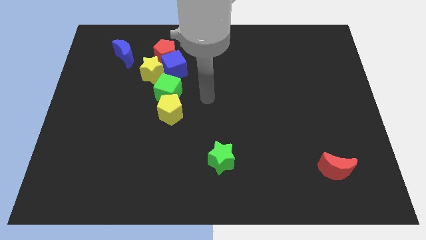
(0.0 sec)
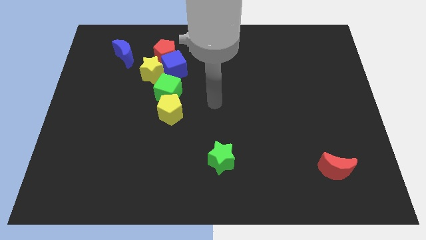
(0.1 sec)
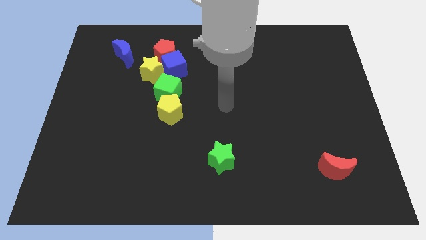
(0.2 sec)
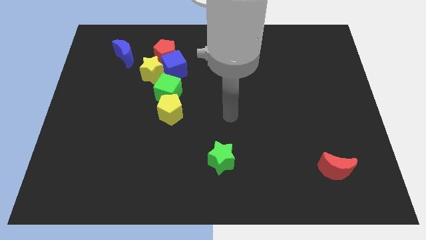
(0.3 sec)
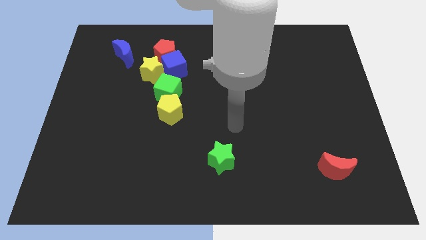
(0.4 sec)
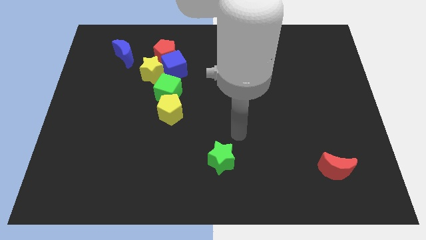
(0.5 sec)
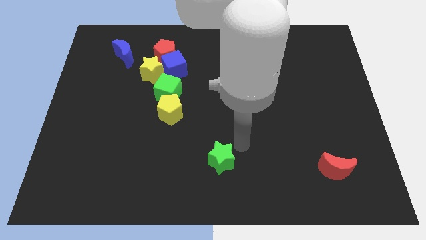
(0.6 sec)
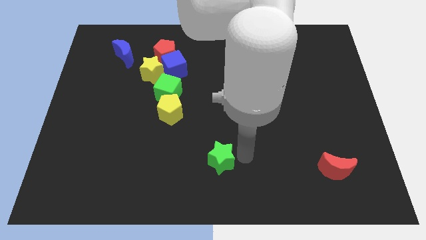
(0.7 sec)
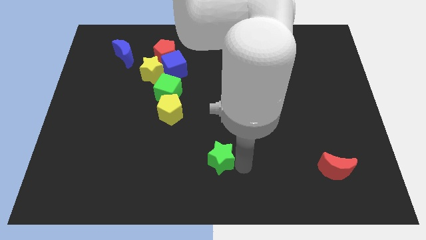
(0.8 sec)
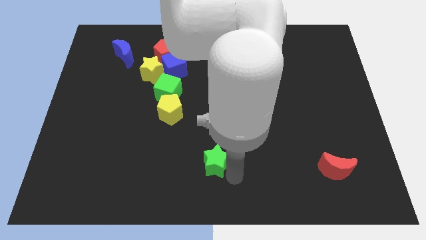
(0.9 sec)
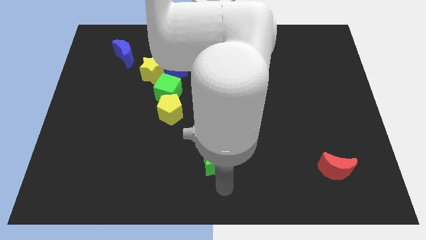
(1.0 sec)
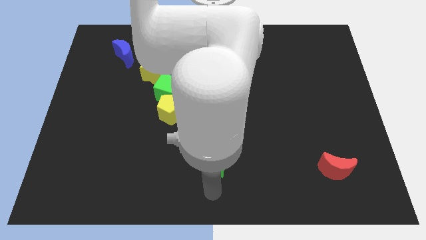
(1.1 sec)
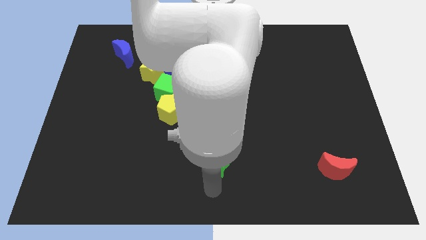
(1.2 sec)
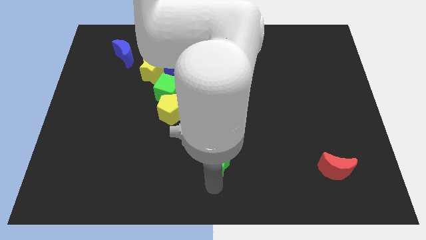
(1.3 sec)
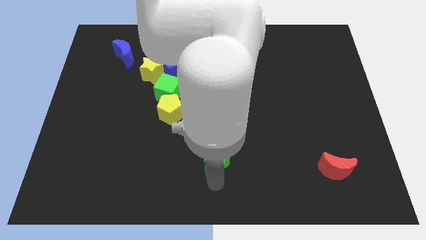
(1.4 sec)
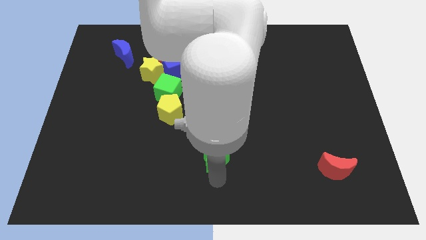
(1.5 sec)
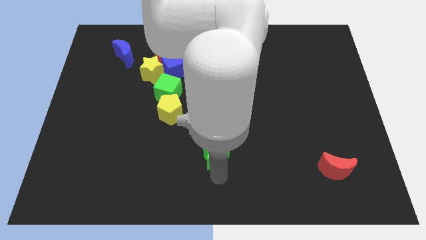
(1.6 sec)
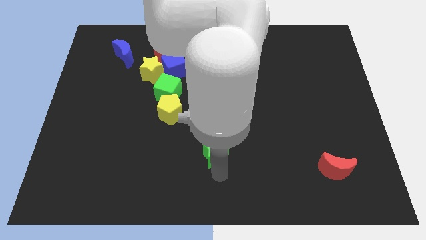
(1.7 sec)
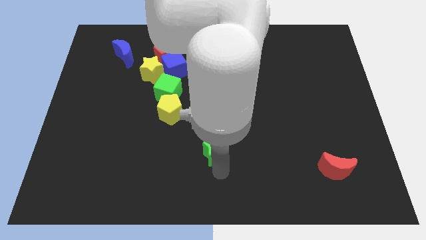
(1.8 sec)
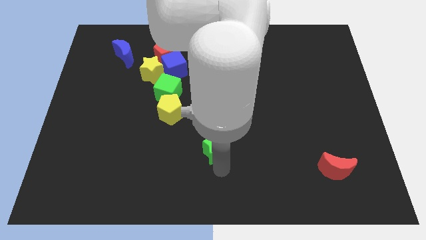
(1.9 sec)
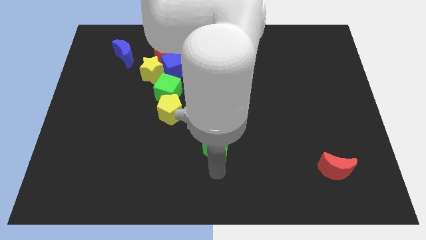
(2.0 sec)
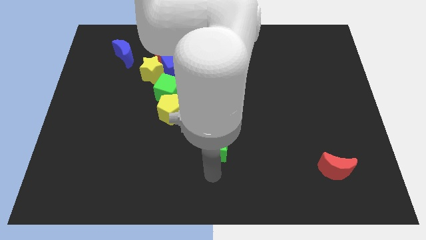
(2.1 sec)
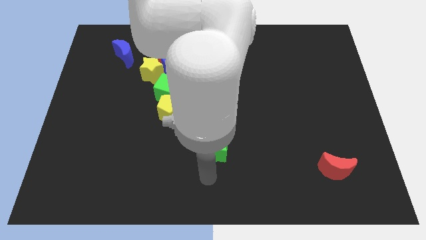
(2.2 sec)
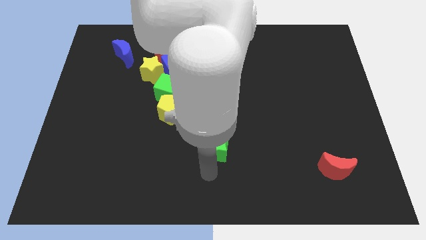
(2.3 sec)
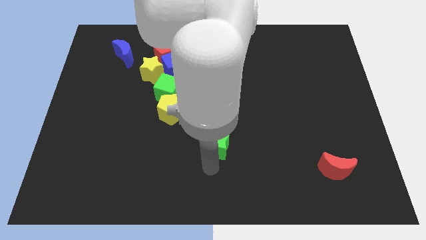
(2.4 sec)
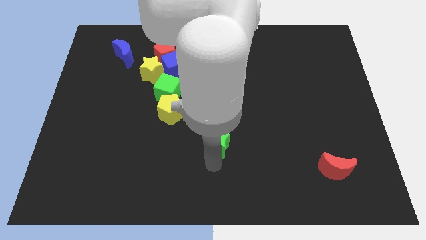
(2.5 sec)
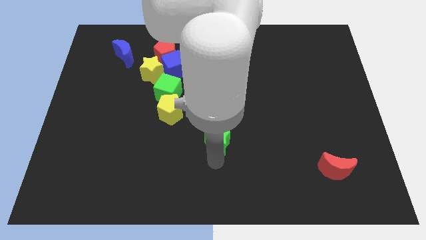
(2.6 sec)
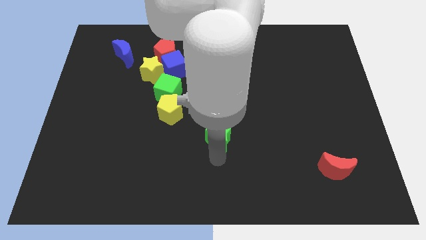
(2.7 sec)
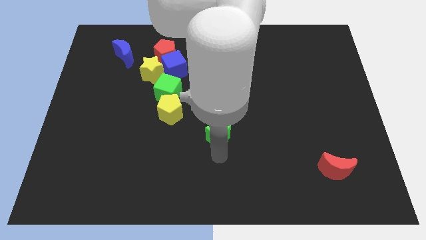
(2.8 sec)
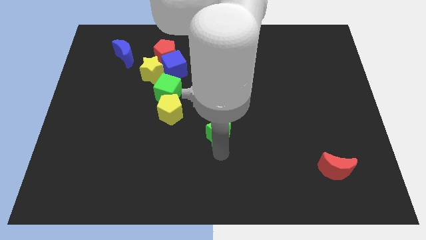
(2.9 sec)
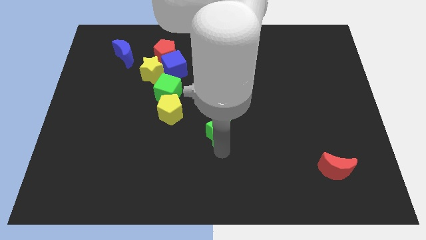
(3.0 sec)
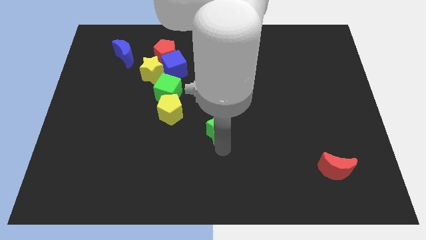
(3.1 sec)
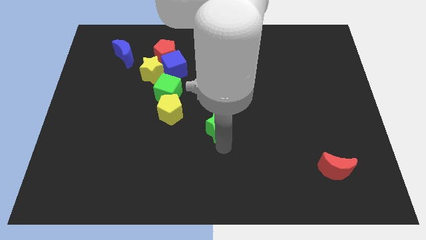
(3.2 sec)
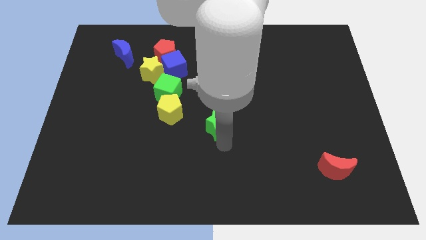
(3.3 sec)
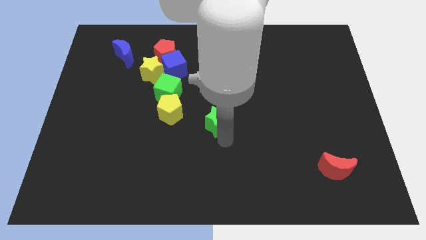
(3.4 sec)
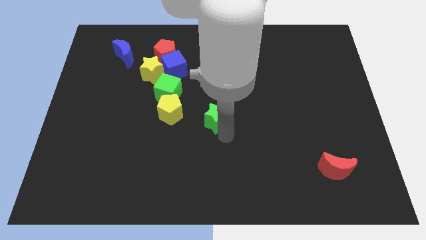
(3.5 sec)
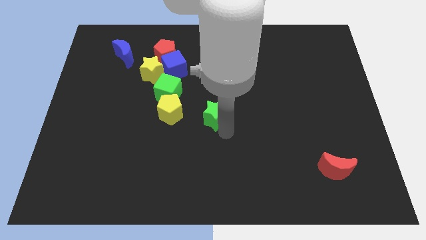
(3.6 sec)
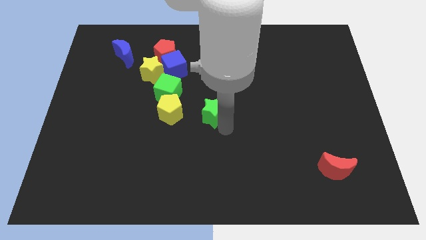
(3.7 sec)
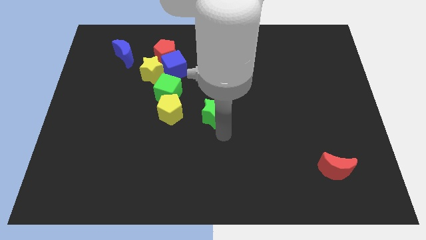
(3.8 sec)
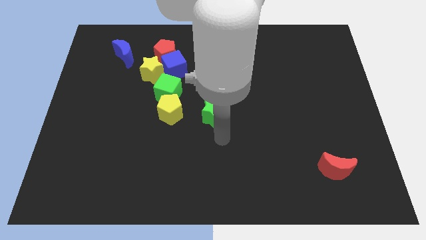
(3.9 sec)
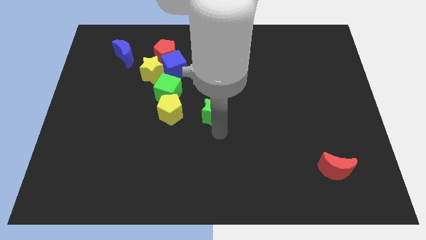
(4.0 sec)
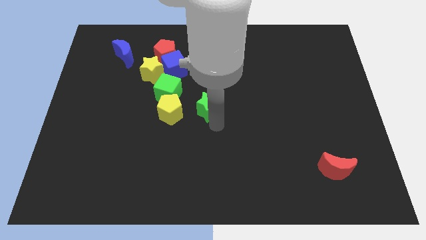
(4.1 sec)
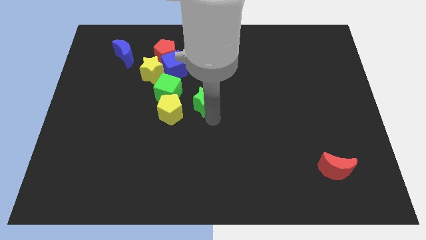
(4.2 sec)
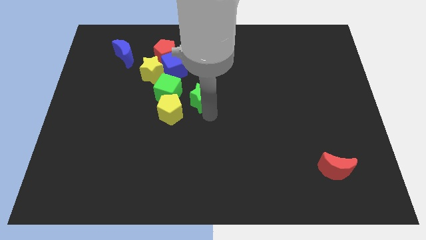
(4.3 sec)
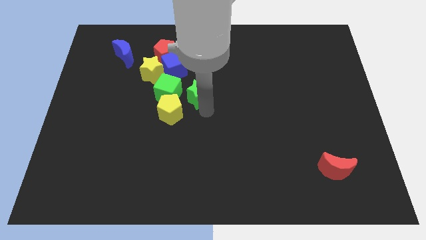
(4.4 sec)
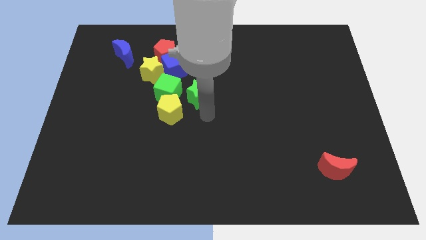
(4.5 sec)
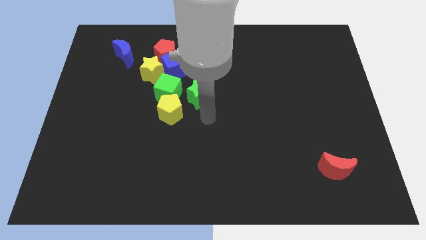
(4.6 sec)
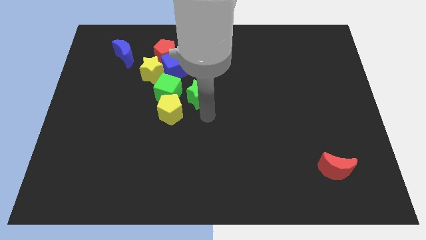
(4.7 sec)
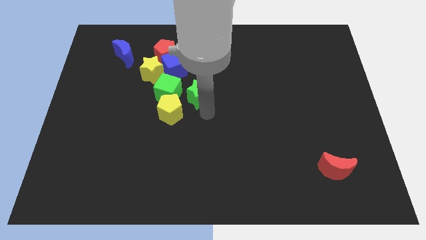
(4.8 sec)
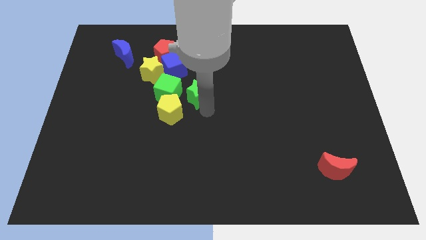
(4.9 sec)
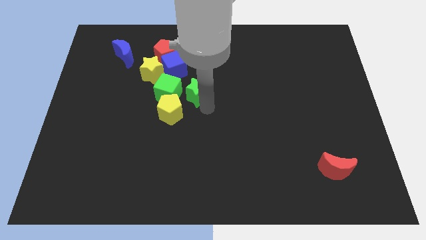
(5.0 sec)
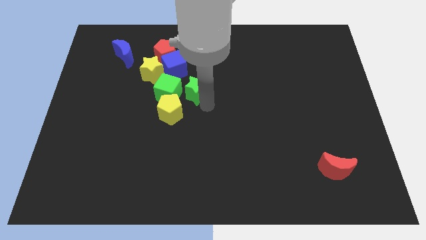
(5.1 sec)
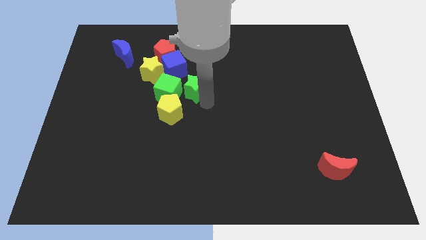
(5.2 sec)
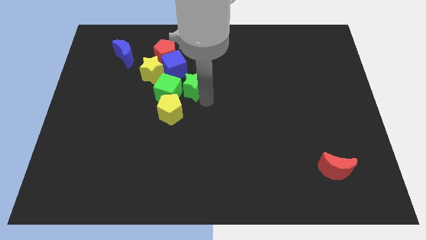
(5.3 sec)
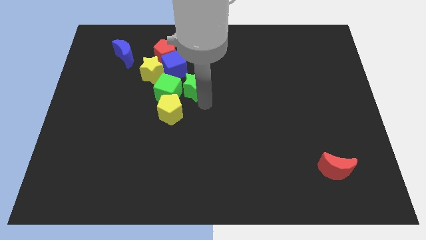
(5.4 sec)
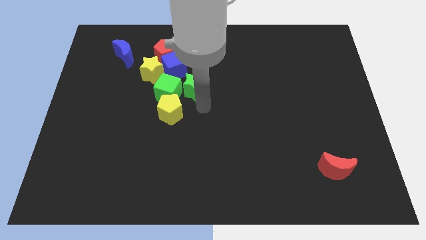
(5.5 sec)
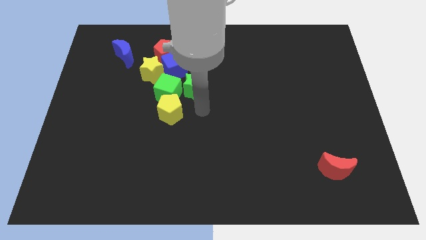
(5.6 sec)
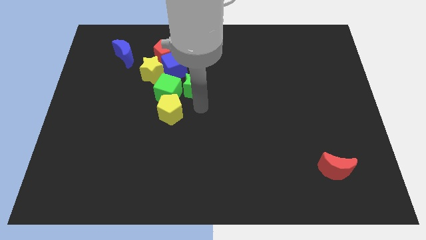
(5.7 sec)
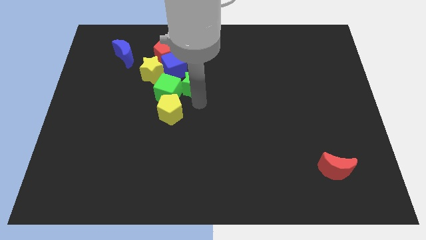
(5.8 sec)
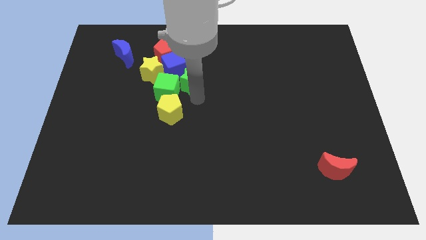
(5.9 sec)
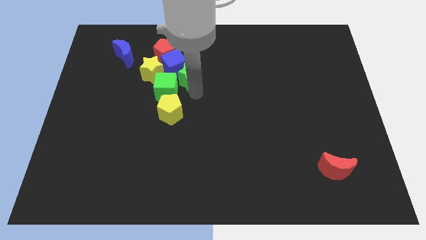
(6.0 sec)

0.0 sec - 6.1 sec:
put the green star next to the blue cube

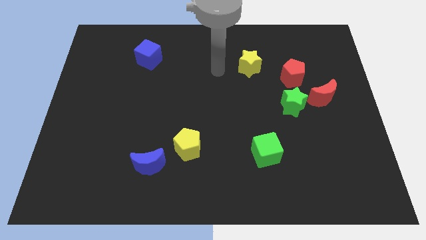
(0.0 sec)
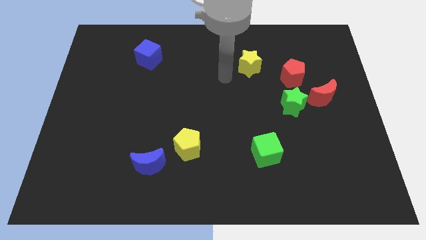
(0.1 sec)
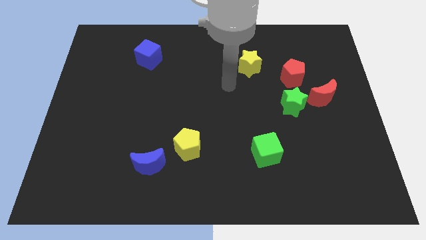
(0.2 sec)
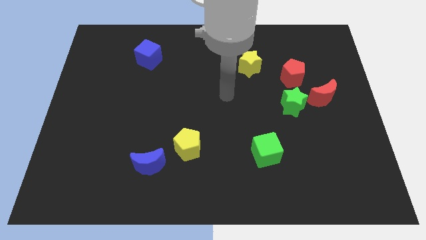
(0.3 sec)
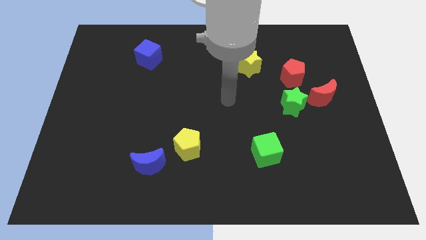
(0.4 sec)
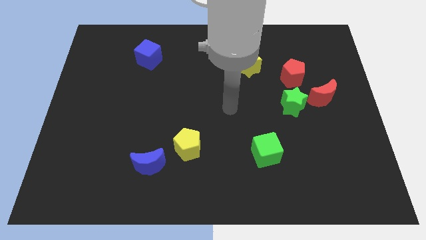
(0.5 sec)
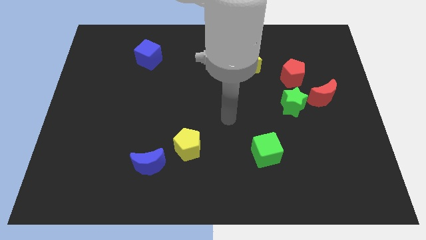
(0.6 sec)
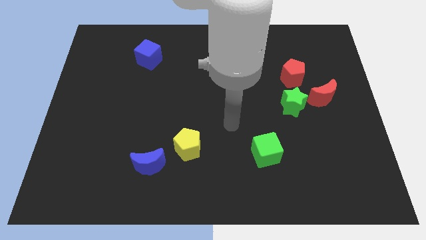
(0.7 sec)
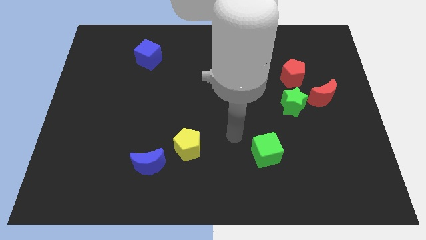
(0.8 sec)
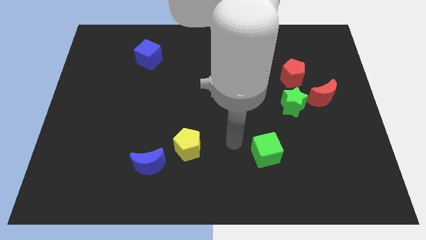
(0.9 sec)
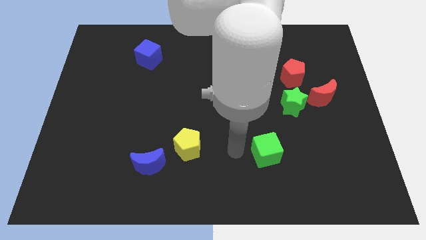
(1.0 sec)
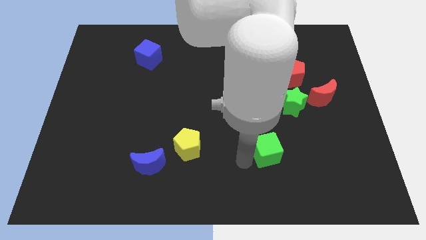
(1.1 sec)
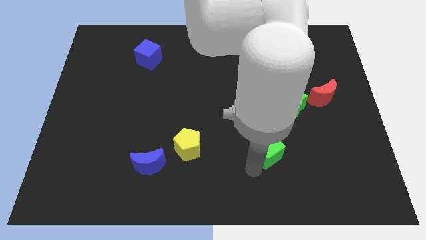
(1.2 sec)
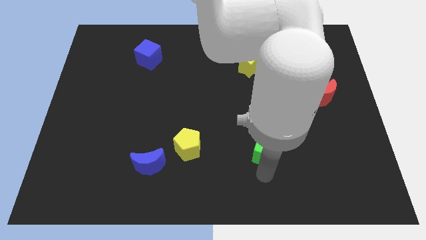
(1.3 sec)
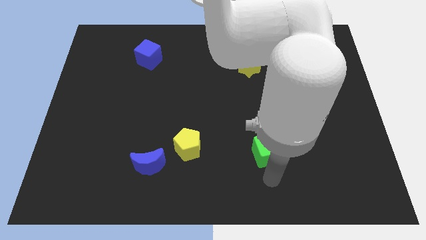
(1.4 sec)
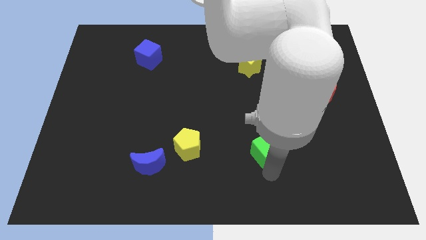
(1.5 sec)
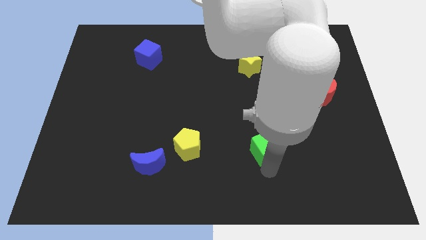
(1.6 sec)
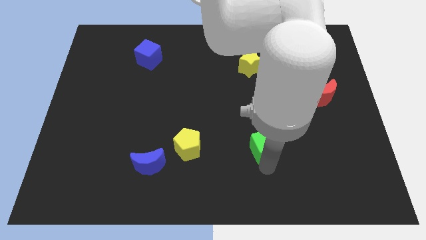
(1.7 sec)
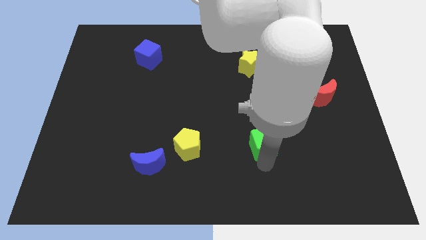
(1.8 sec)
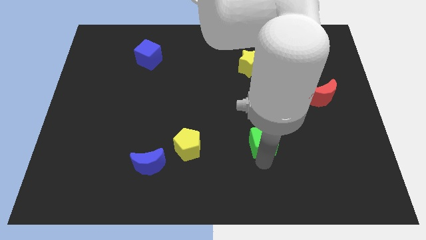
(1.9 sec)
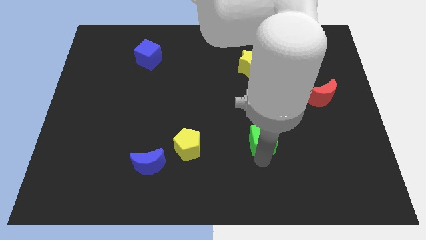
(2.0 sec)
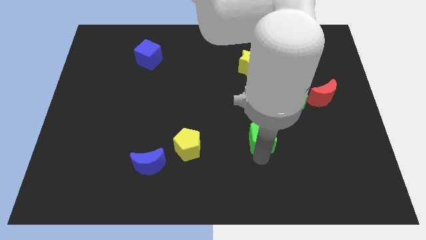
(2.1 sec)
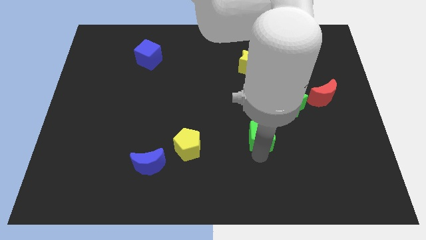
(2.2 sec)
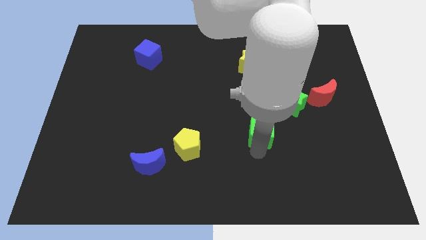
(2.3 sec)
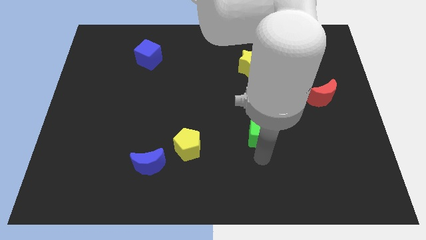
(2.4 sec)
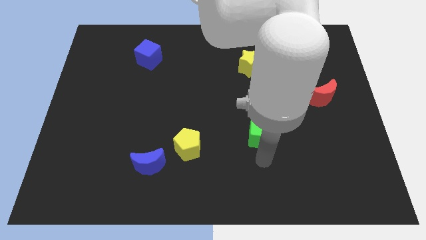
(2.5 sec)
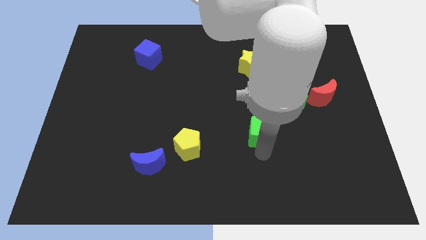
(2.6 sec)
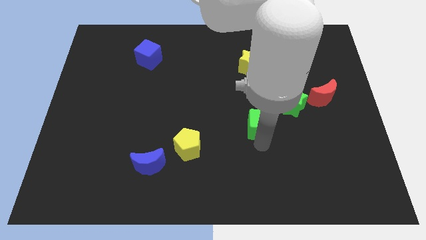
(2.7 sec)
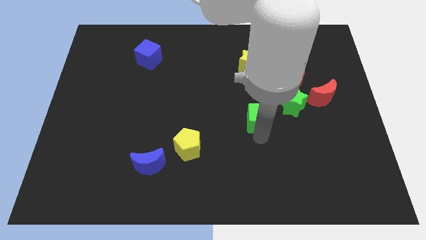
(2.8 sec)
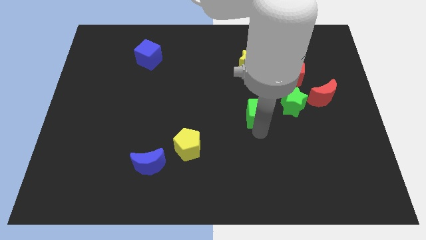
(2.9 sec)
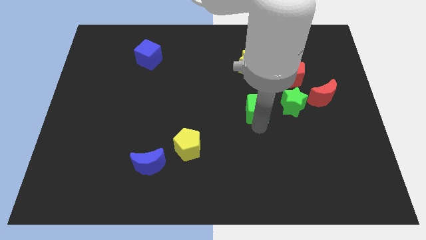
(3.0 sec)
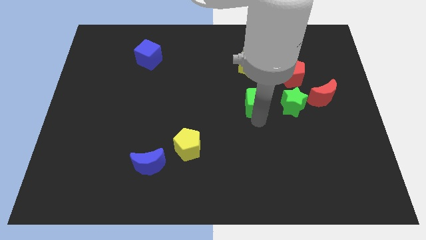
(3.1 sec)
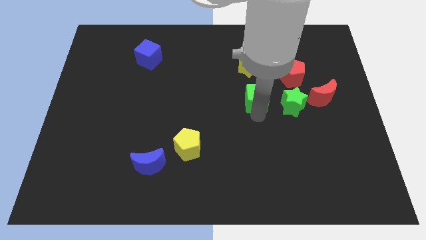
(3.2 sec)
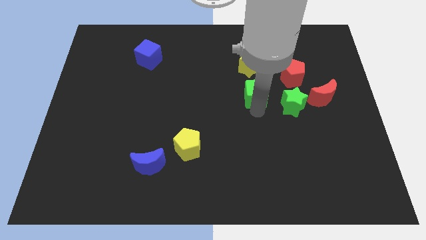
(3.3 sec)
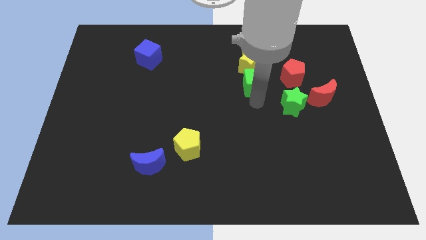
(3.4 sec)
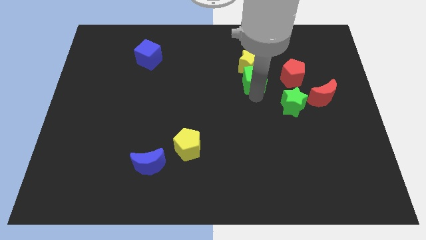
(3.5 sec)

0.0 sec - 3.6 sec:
move the green cube close to the yellow star
